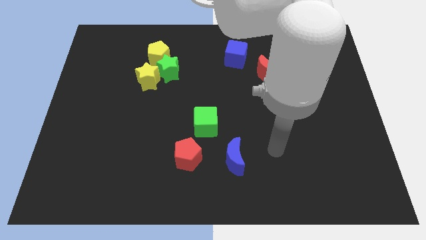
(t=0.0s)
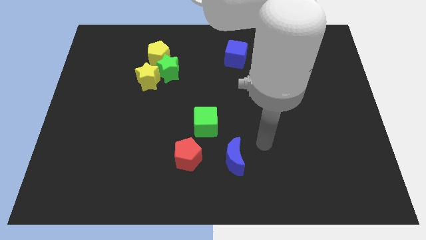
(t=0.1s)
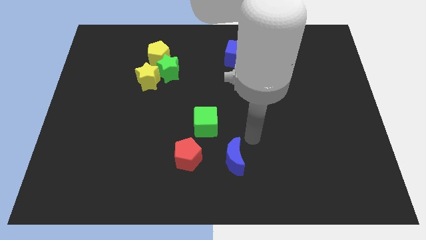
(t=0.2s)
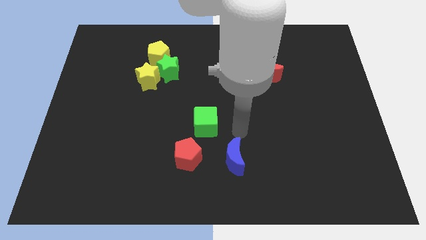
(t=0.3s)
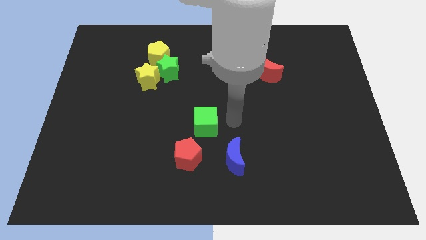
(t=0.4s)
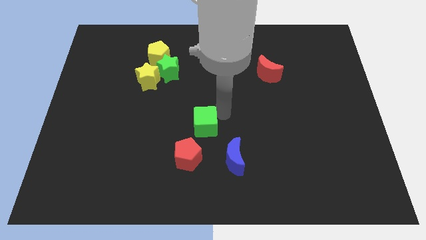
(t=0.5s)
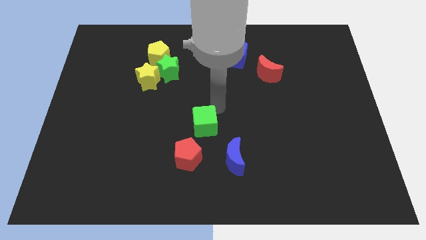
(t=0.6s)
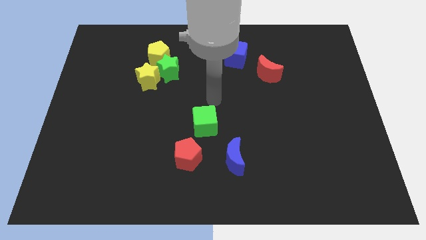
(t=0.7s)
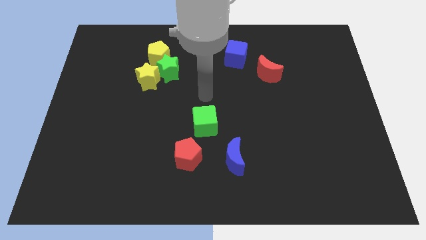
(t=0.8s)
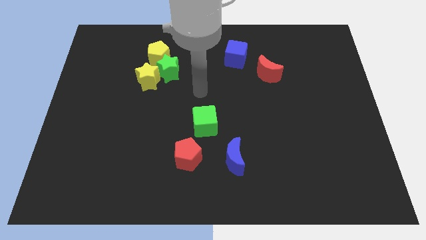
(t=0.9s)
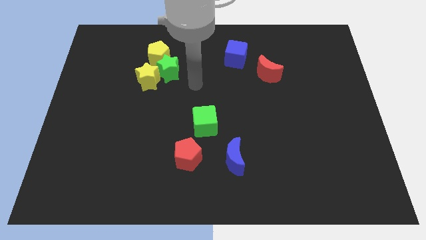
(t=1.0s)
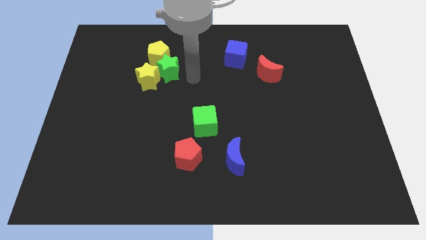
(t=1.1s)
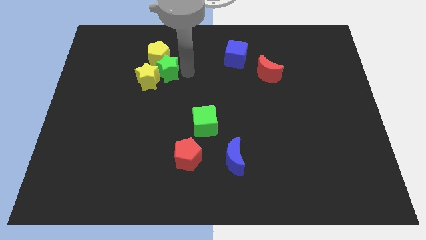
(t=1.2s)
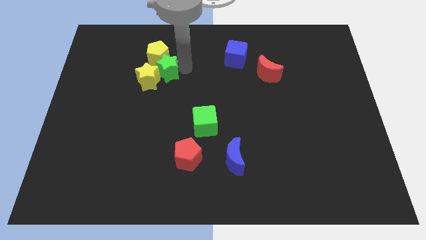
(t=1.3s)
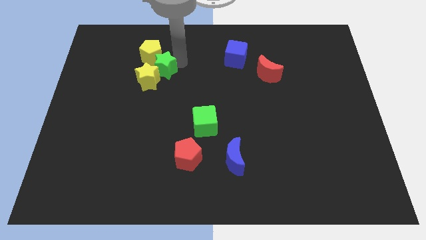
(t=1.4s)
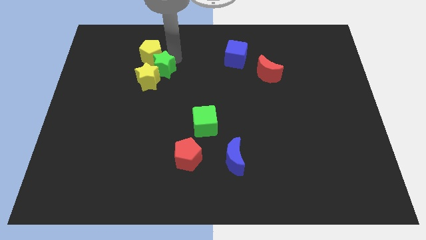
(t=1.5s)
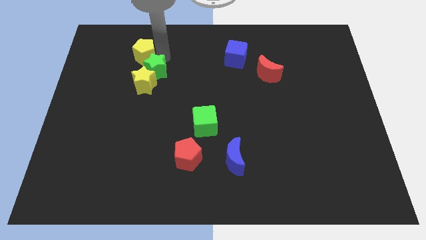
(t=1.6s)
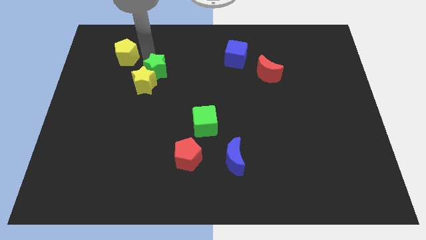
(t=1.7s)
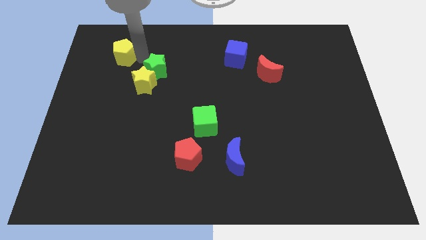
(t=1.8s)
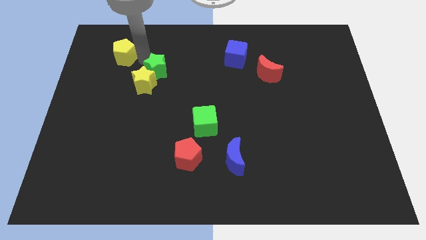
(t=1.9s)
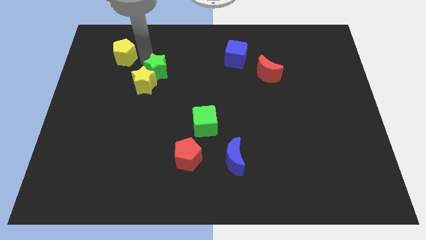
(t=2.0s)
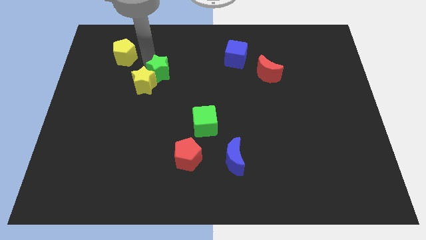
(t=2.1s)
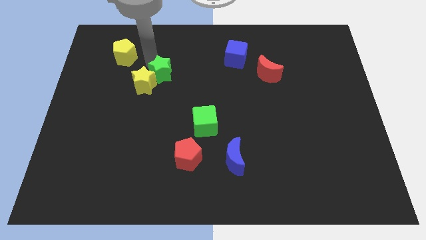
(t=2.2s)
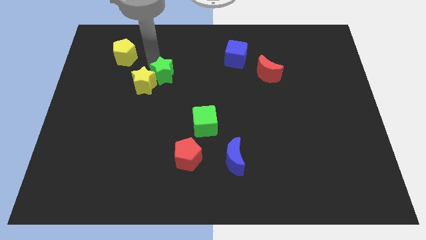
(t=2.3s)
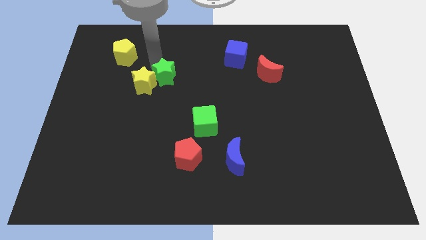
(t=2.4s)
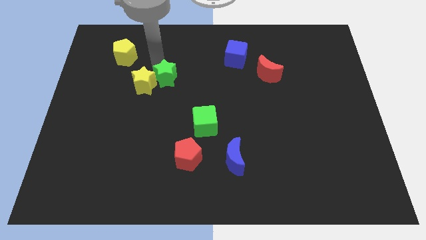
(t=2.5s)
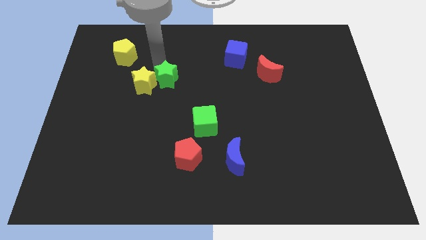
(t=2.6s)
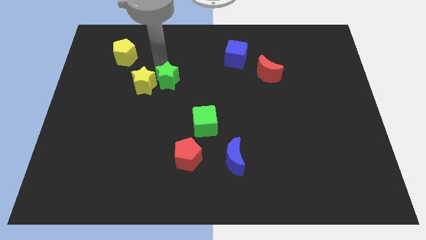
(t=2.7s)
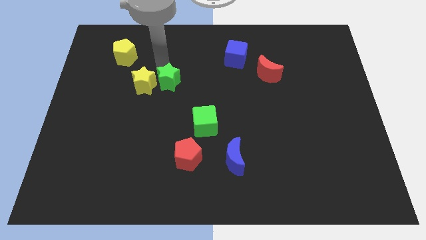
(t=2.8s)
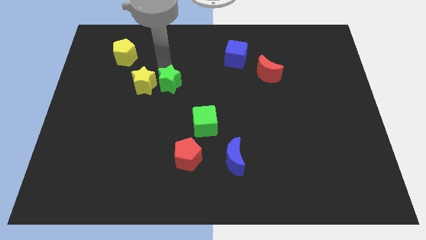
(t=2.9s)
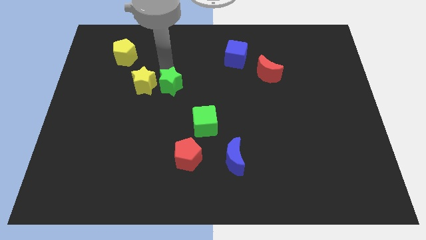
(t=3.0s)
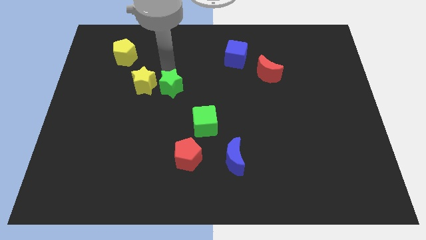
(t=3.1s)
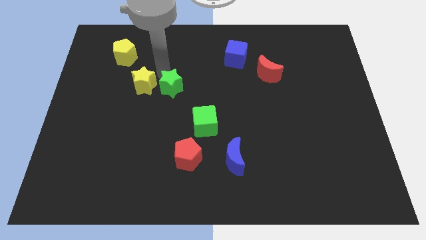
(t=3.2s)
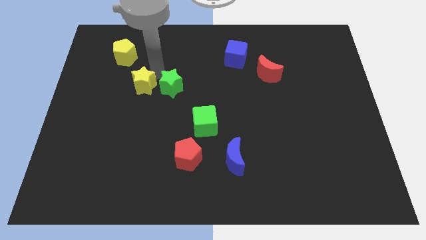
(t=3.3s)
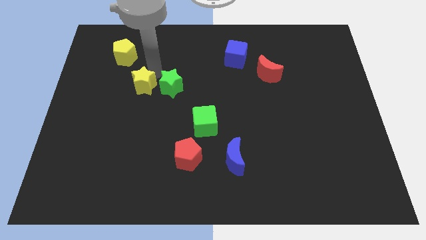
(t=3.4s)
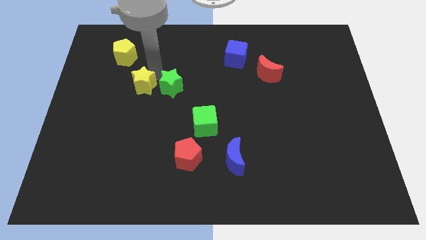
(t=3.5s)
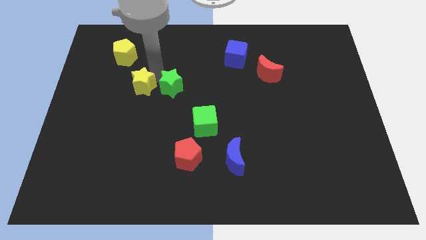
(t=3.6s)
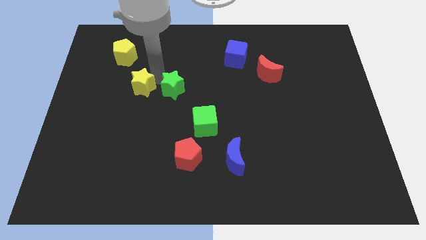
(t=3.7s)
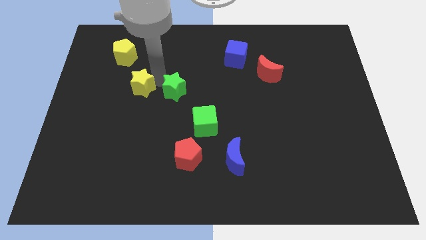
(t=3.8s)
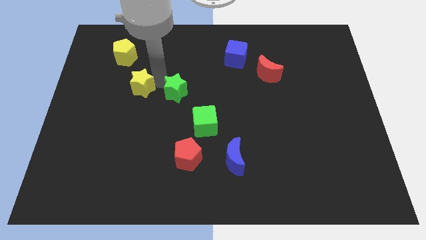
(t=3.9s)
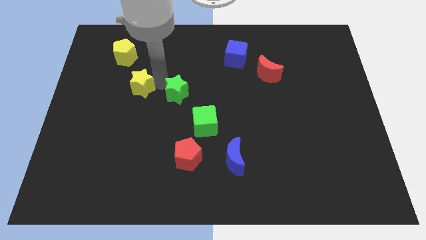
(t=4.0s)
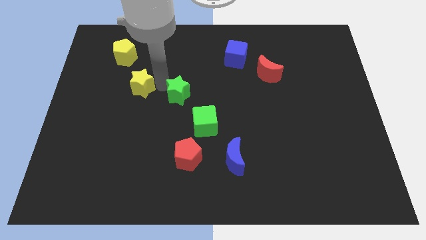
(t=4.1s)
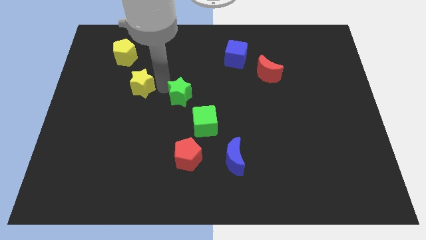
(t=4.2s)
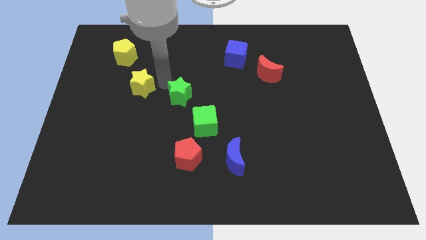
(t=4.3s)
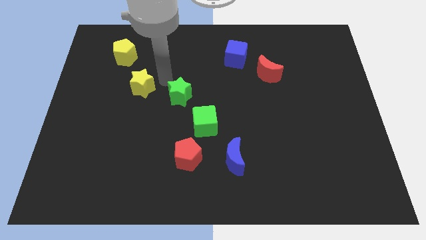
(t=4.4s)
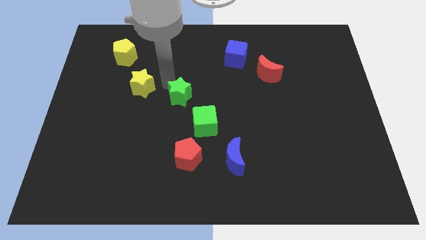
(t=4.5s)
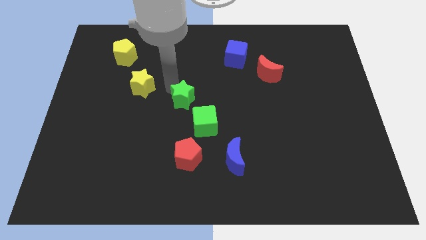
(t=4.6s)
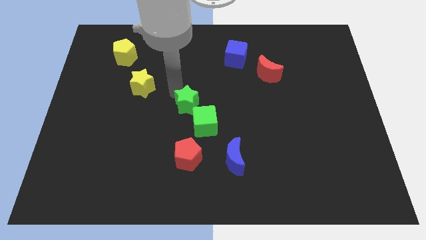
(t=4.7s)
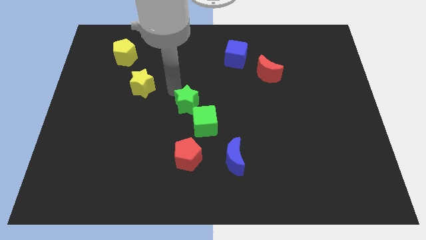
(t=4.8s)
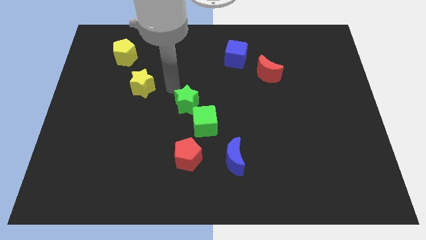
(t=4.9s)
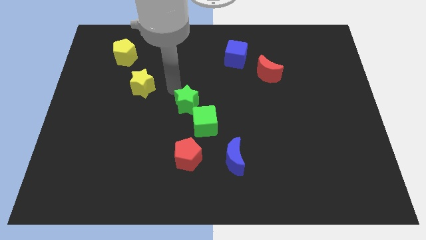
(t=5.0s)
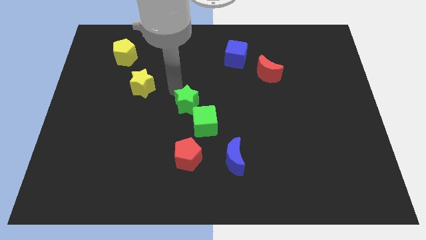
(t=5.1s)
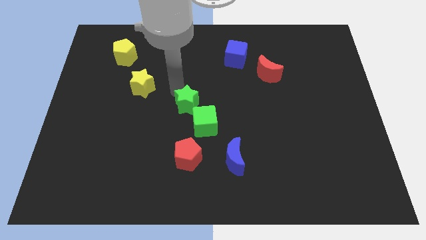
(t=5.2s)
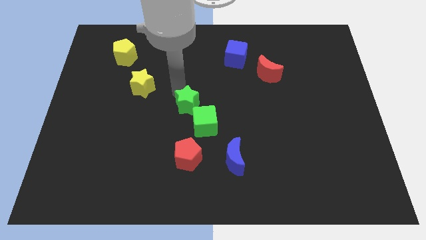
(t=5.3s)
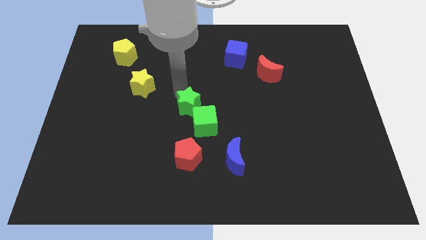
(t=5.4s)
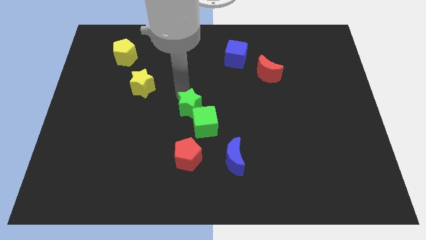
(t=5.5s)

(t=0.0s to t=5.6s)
slide the green star next to the green cube

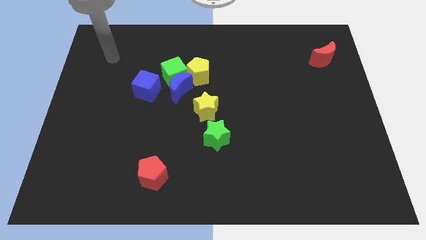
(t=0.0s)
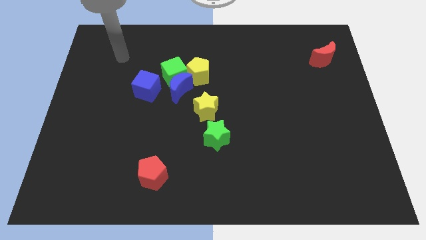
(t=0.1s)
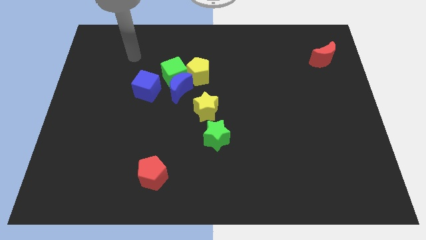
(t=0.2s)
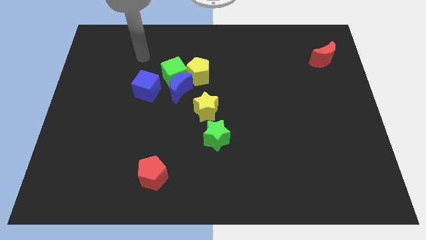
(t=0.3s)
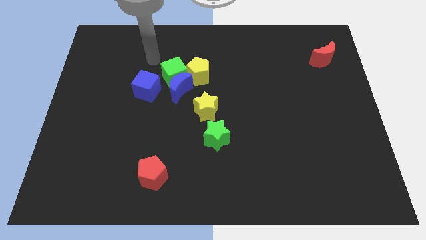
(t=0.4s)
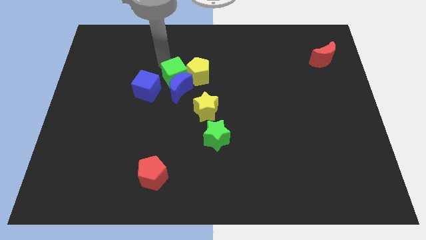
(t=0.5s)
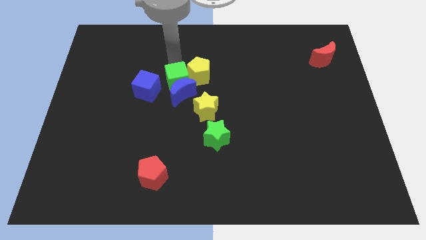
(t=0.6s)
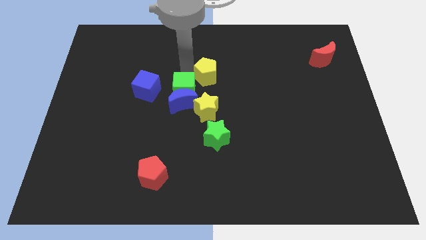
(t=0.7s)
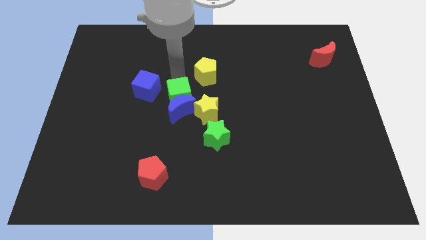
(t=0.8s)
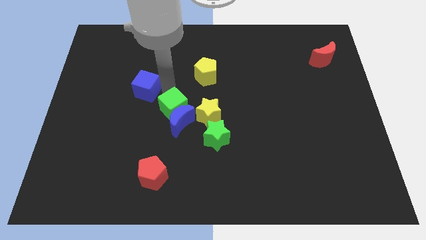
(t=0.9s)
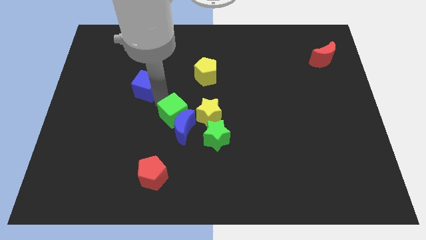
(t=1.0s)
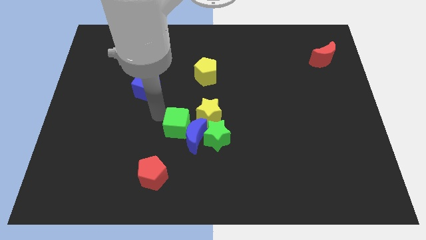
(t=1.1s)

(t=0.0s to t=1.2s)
slide the blue moon close to the green star
